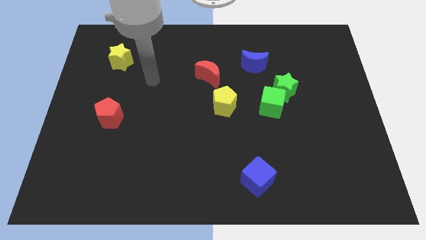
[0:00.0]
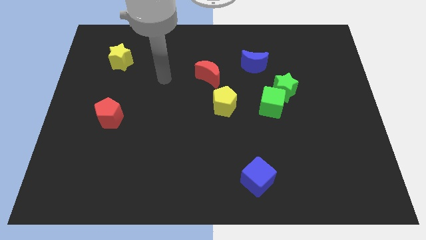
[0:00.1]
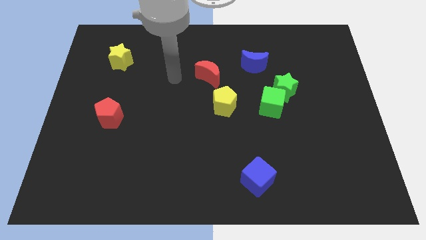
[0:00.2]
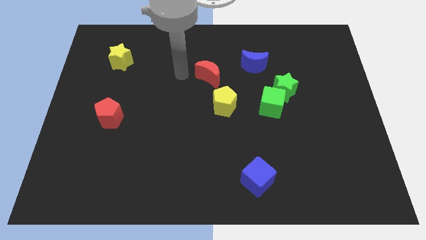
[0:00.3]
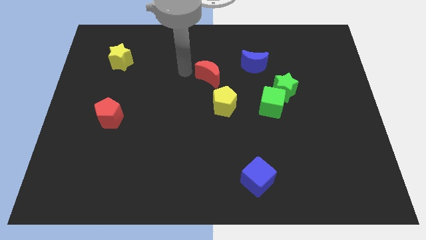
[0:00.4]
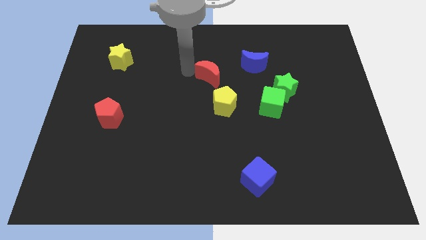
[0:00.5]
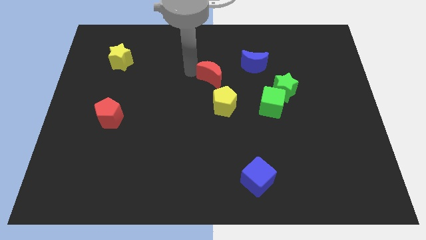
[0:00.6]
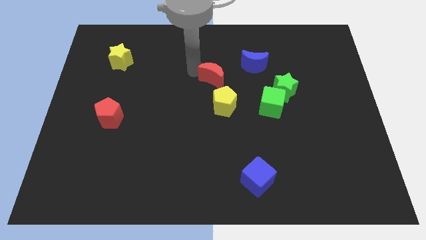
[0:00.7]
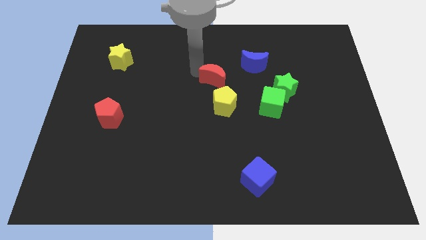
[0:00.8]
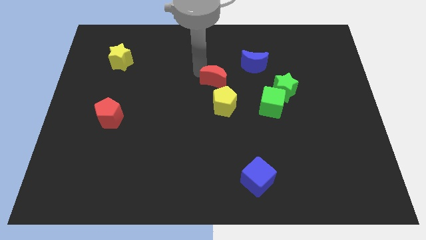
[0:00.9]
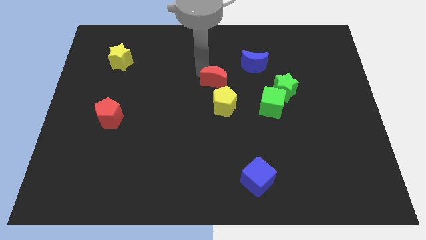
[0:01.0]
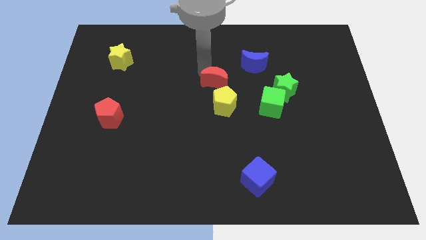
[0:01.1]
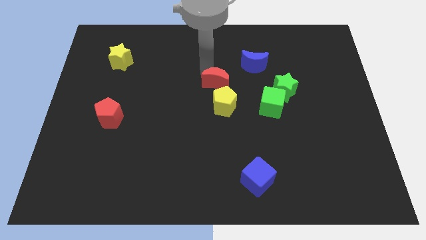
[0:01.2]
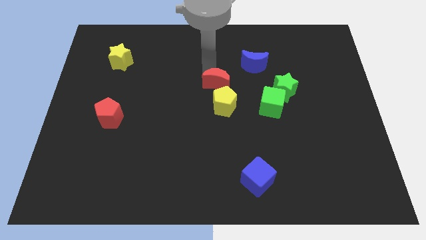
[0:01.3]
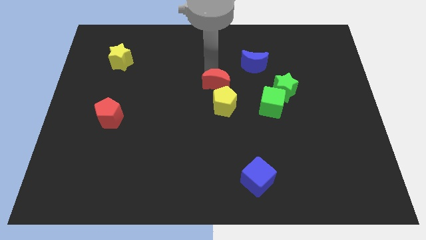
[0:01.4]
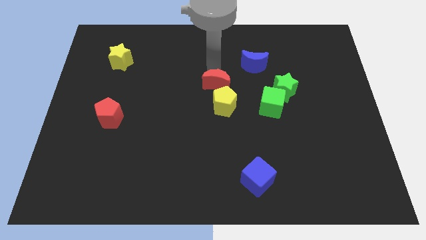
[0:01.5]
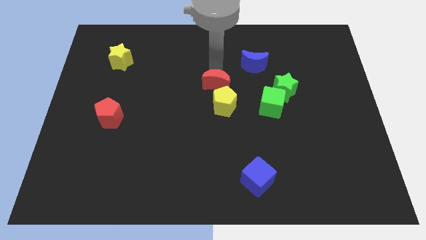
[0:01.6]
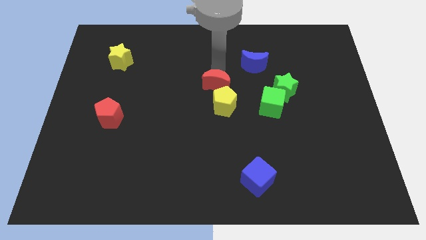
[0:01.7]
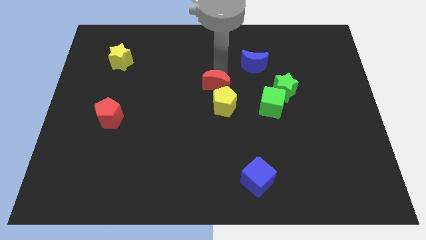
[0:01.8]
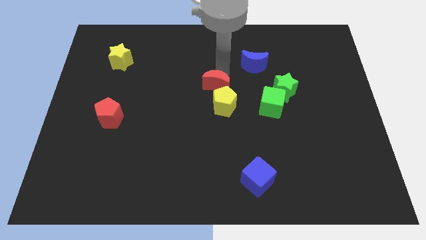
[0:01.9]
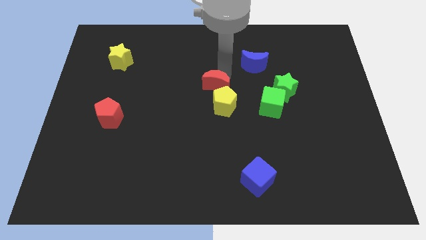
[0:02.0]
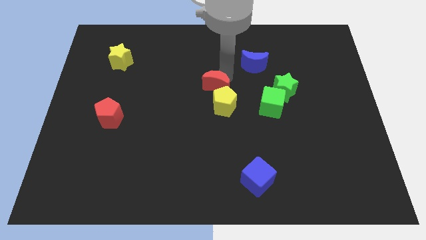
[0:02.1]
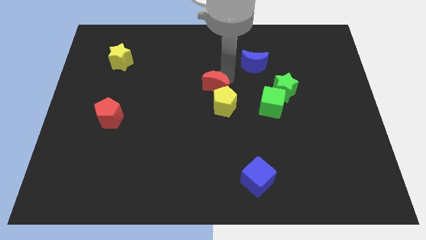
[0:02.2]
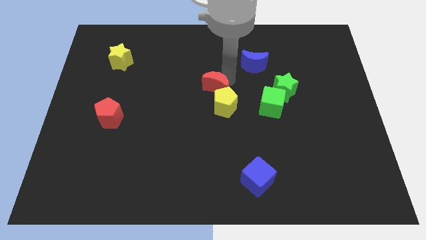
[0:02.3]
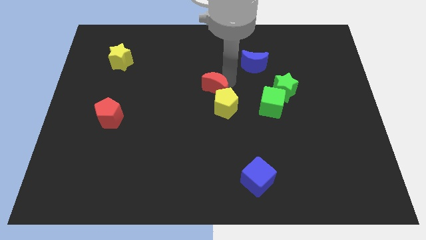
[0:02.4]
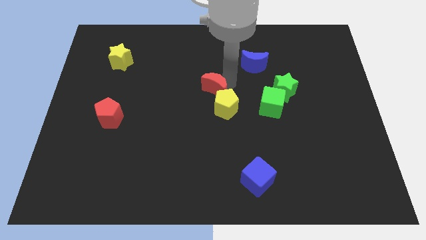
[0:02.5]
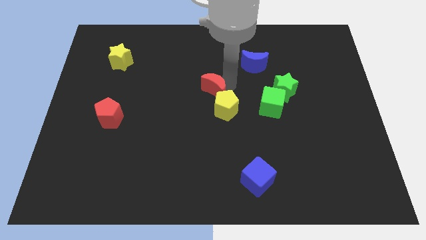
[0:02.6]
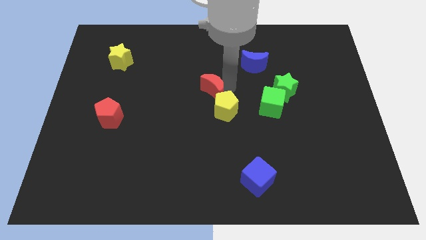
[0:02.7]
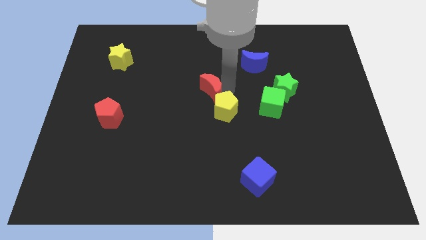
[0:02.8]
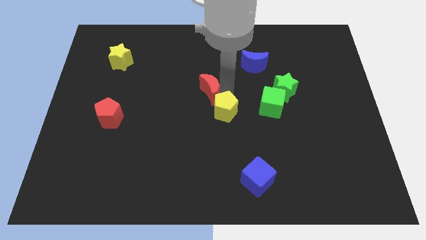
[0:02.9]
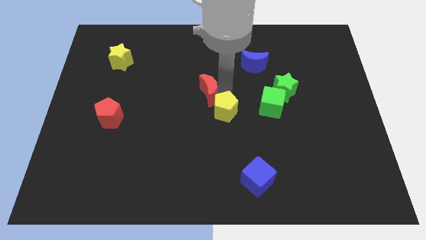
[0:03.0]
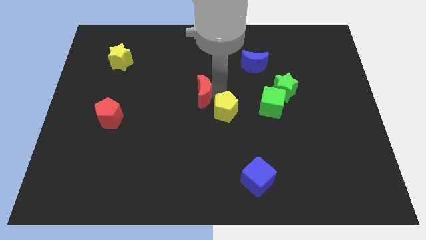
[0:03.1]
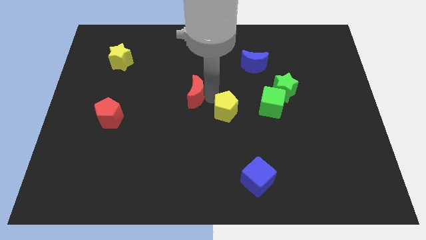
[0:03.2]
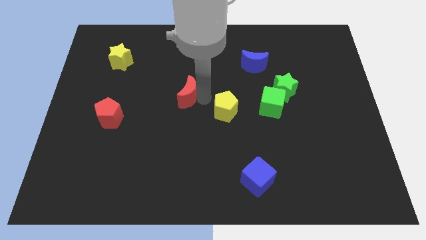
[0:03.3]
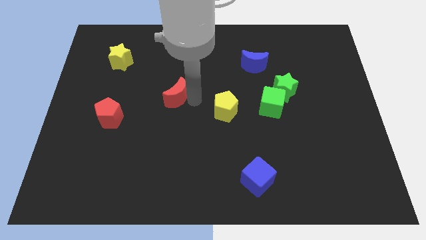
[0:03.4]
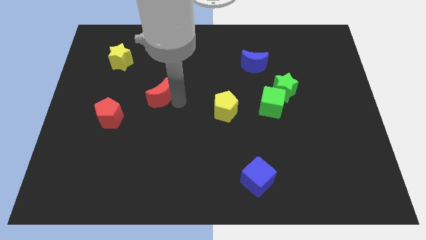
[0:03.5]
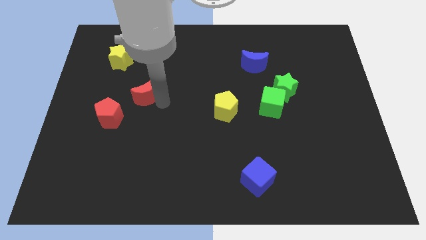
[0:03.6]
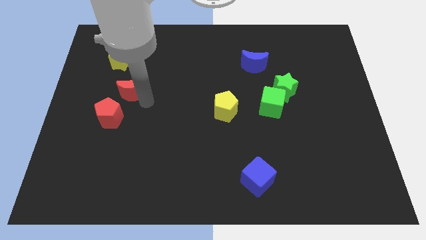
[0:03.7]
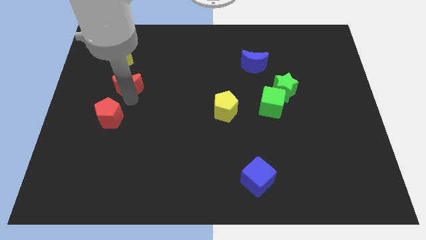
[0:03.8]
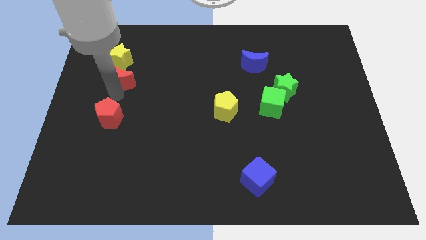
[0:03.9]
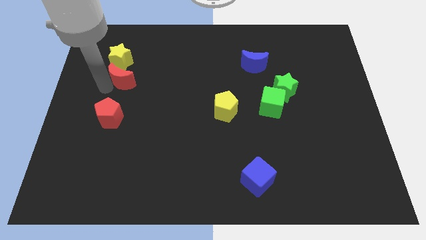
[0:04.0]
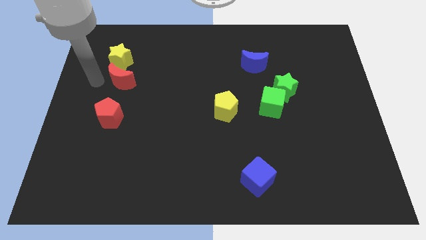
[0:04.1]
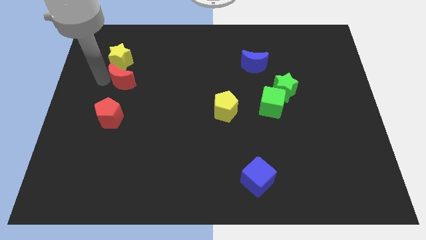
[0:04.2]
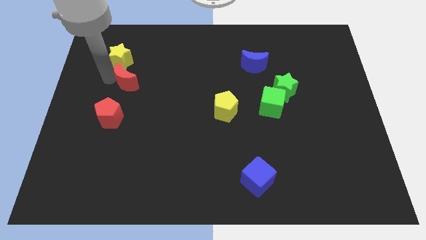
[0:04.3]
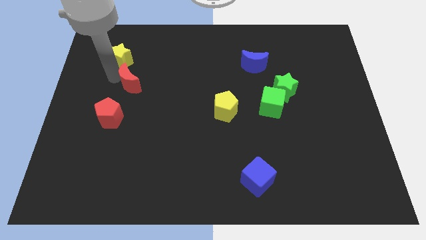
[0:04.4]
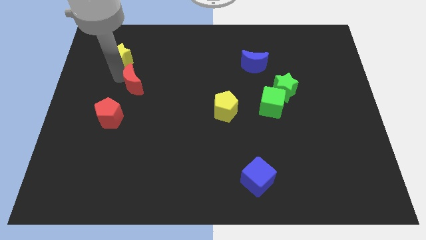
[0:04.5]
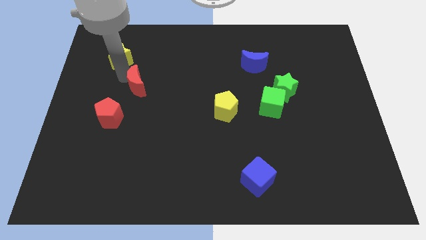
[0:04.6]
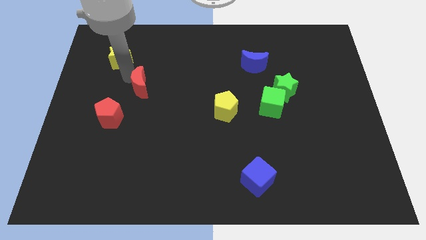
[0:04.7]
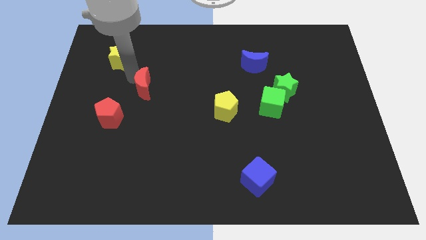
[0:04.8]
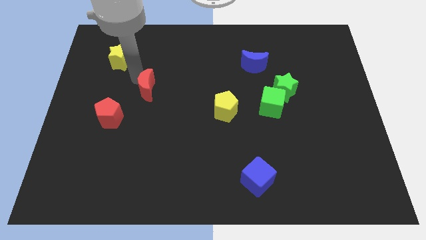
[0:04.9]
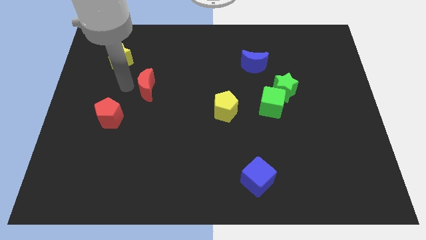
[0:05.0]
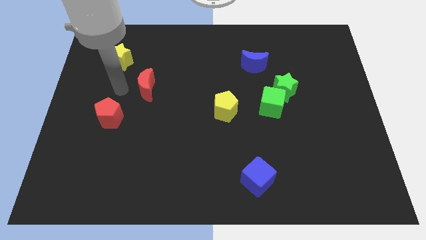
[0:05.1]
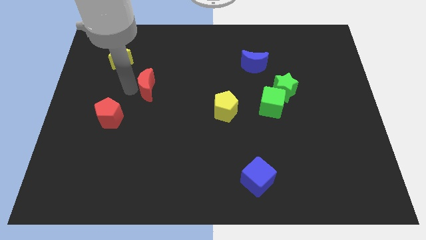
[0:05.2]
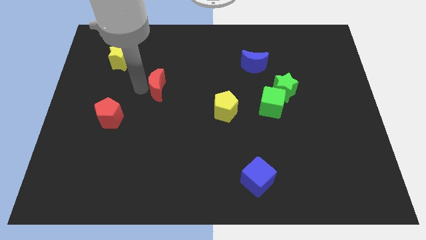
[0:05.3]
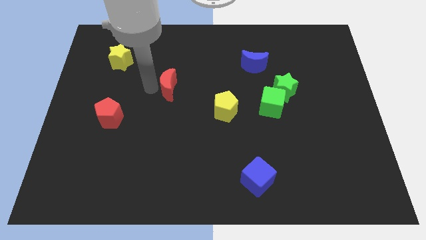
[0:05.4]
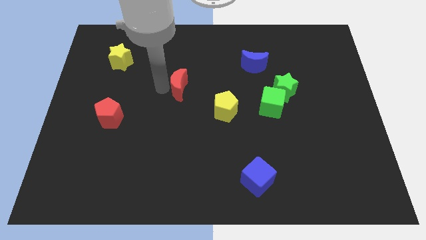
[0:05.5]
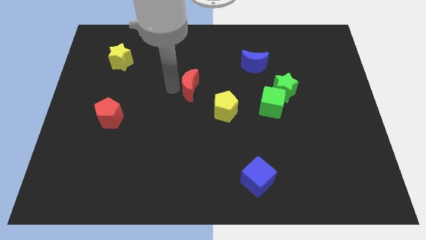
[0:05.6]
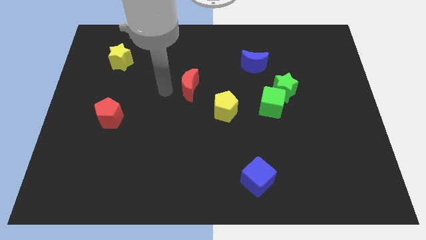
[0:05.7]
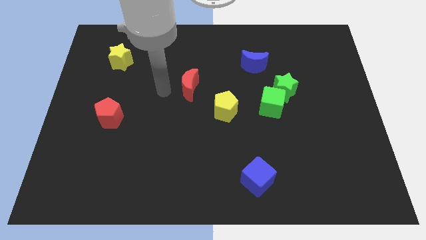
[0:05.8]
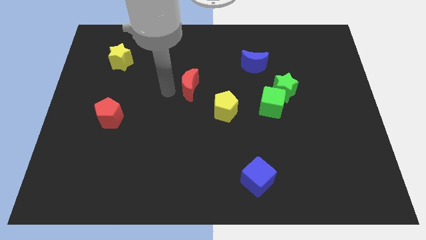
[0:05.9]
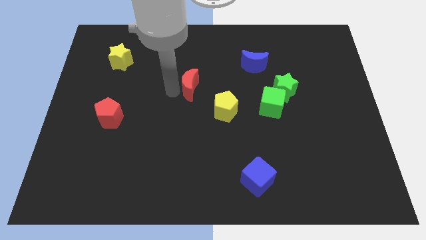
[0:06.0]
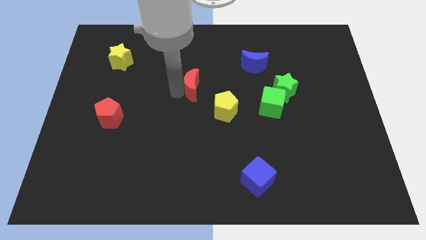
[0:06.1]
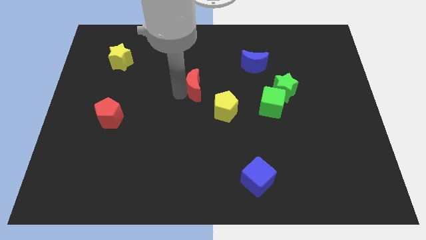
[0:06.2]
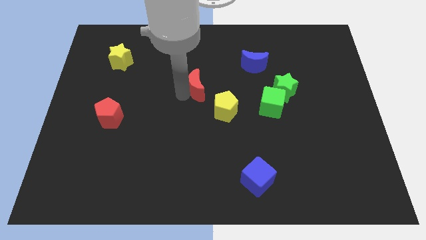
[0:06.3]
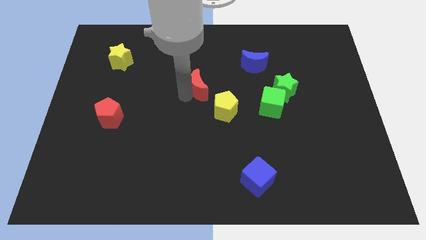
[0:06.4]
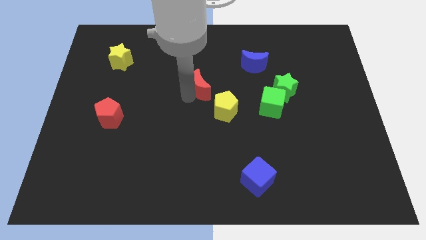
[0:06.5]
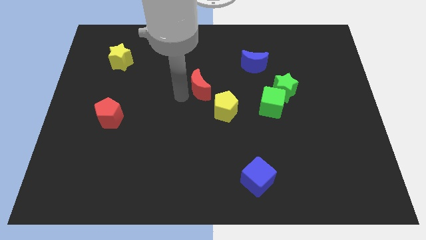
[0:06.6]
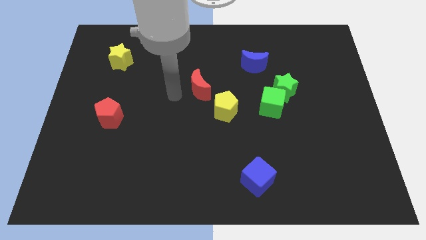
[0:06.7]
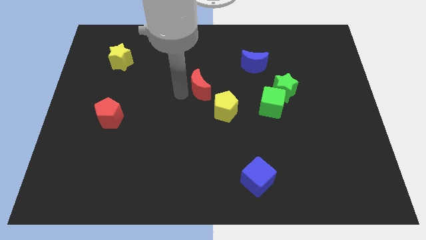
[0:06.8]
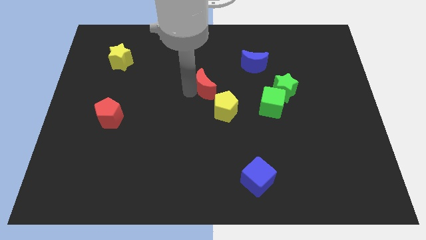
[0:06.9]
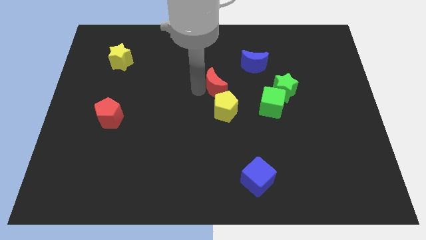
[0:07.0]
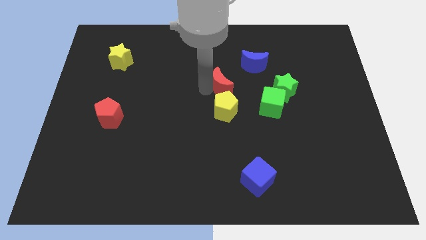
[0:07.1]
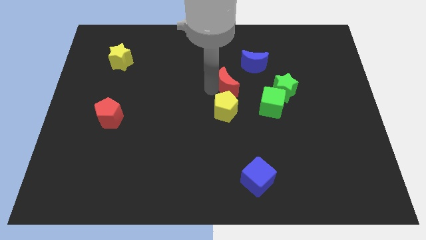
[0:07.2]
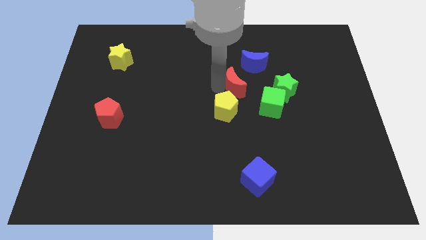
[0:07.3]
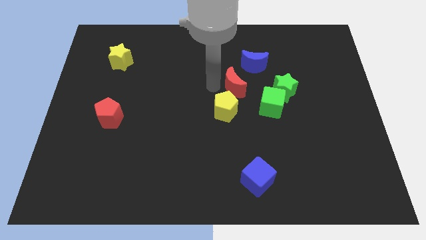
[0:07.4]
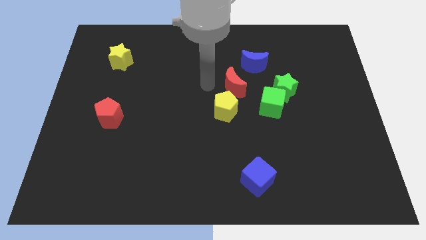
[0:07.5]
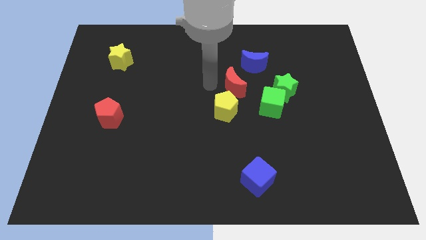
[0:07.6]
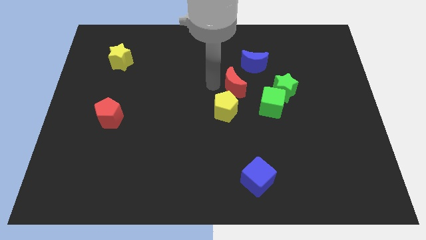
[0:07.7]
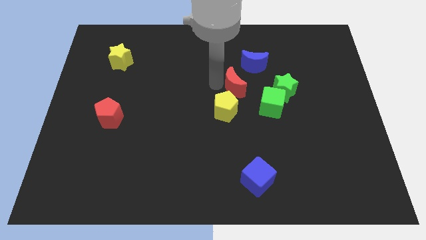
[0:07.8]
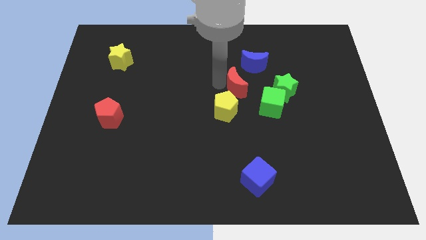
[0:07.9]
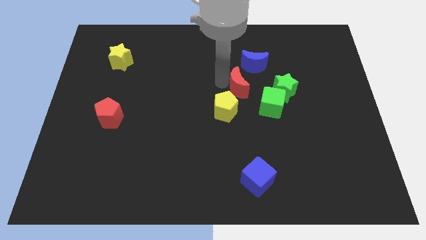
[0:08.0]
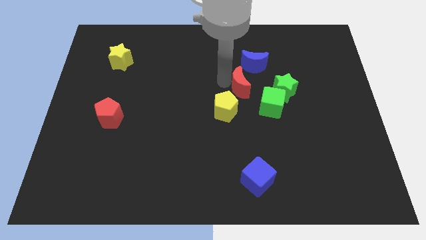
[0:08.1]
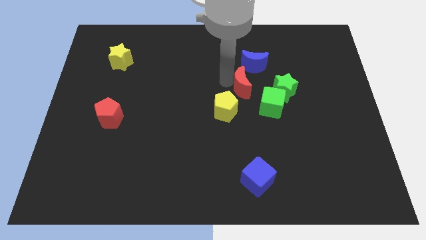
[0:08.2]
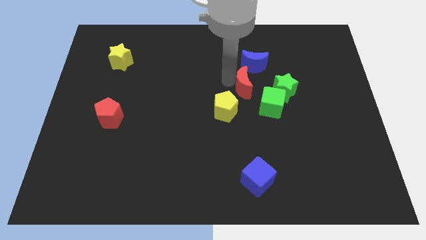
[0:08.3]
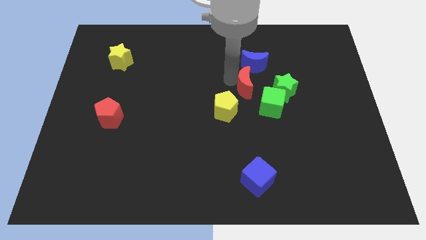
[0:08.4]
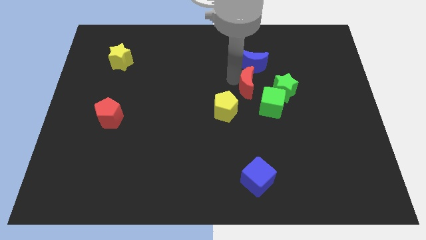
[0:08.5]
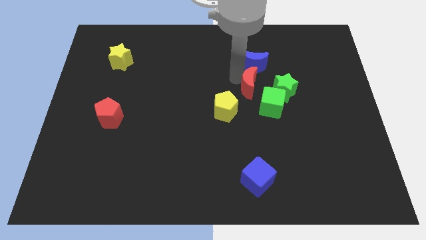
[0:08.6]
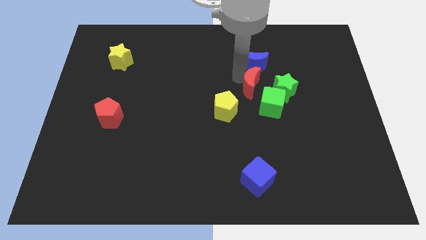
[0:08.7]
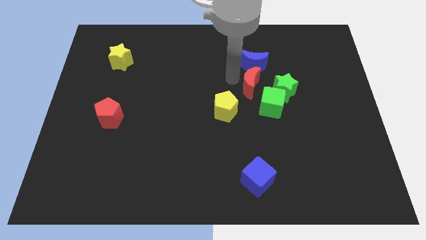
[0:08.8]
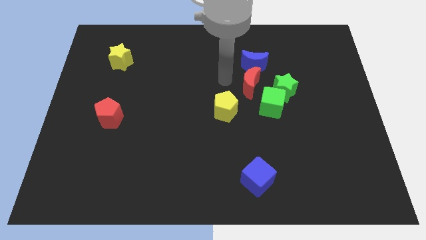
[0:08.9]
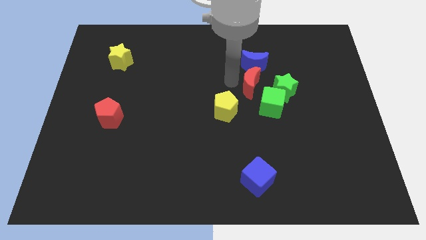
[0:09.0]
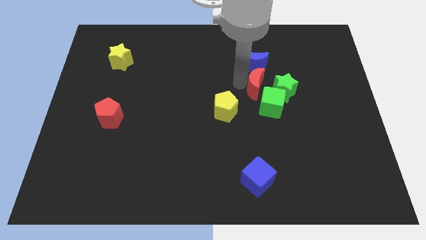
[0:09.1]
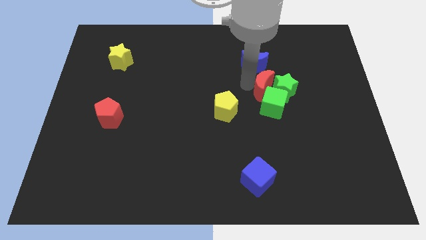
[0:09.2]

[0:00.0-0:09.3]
push the red moon towards the green star
